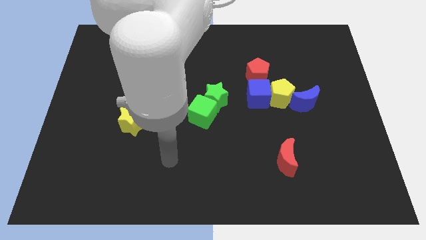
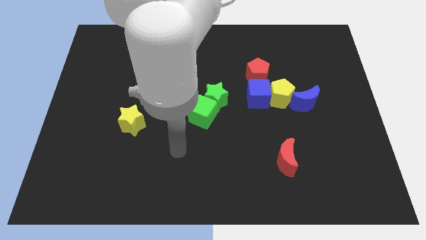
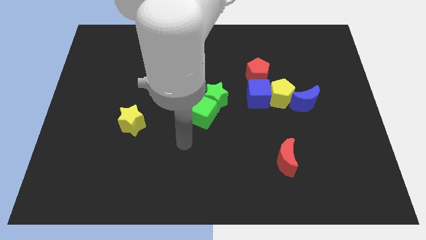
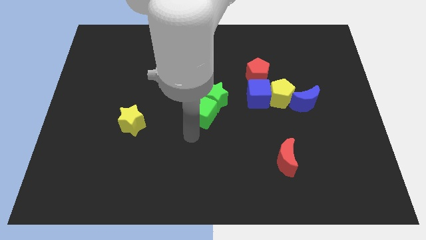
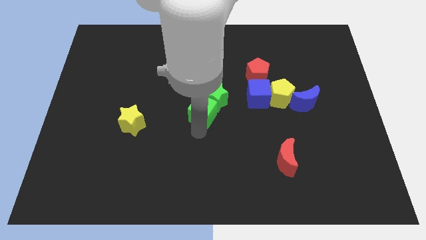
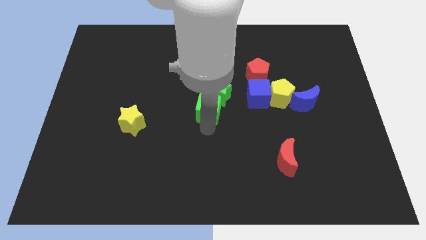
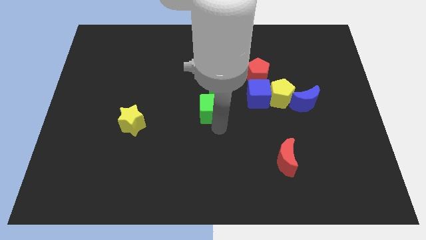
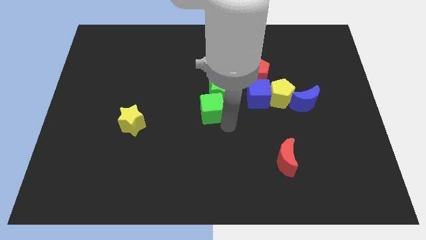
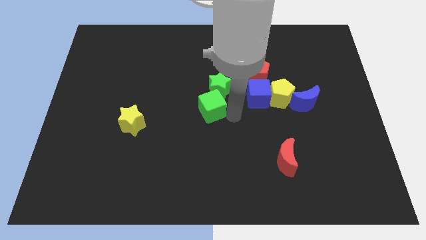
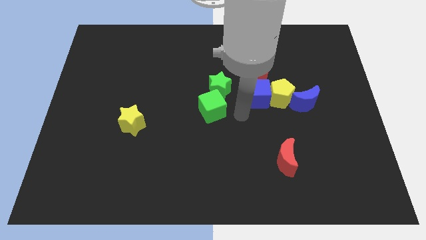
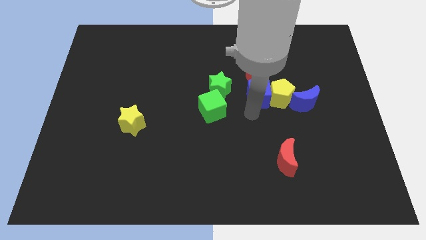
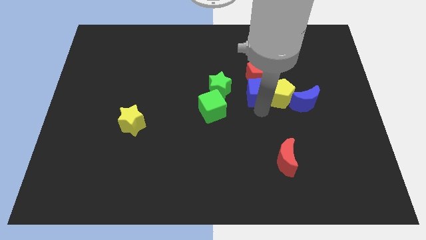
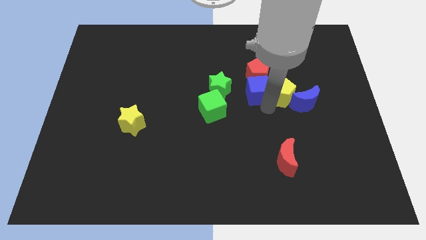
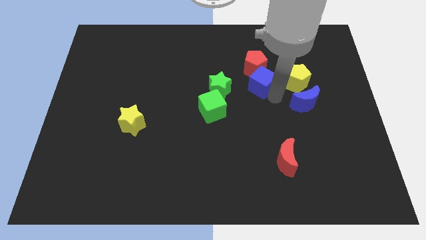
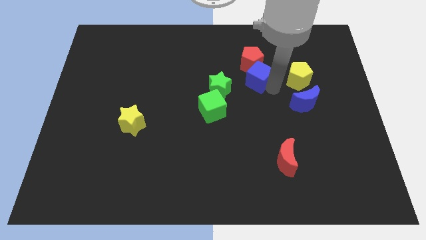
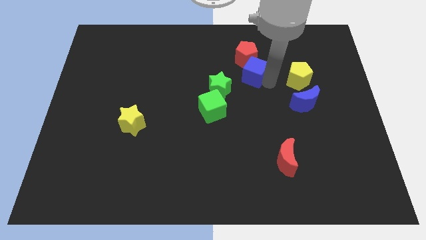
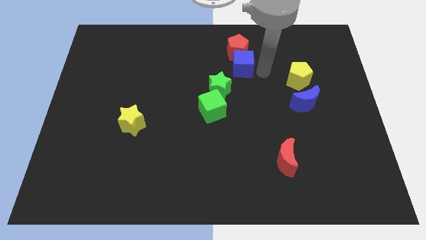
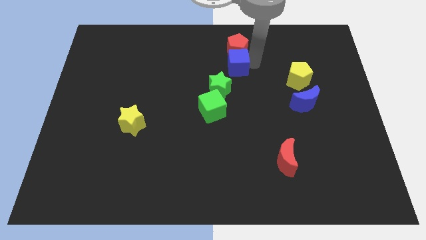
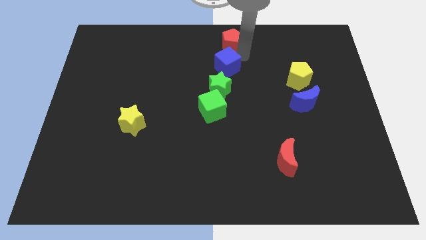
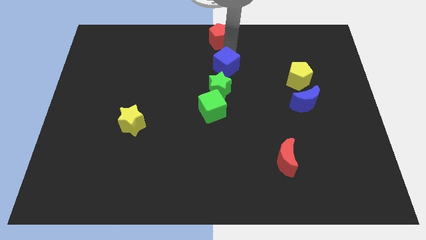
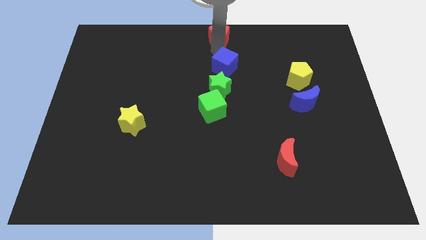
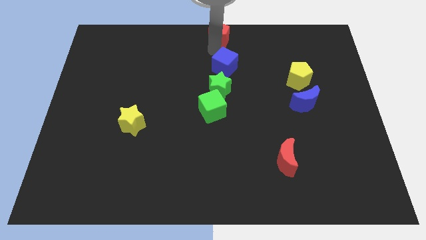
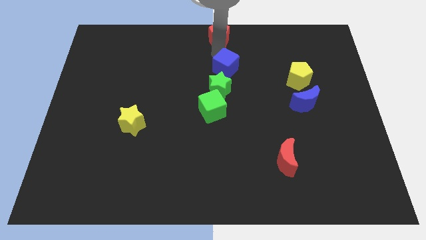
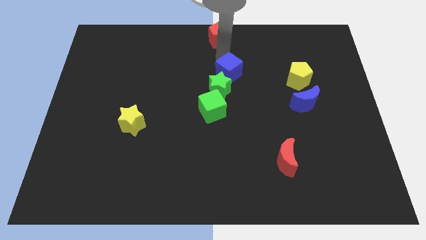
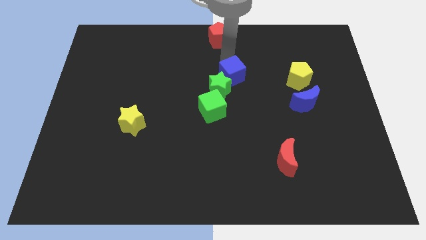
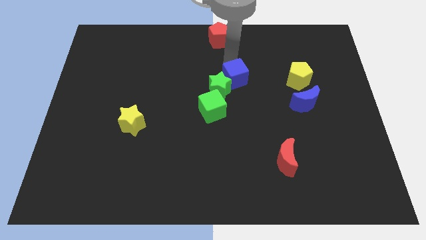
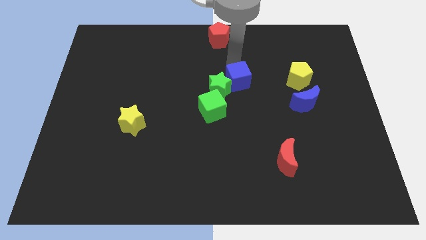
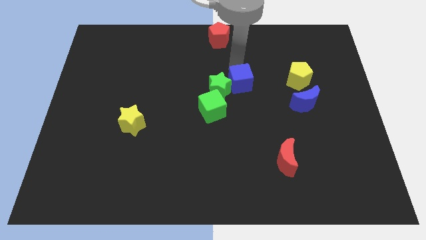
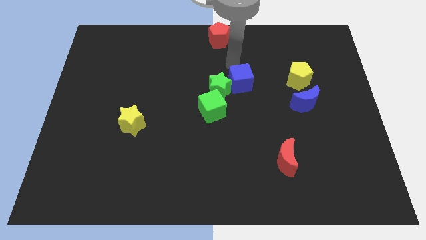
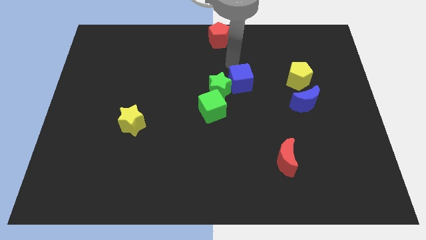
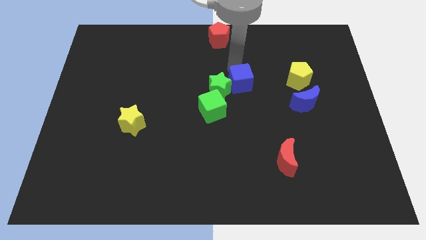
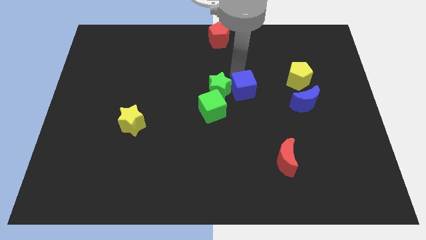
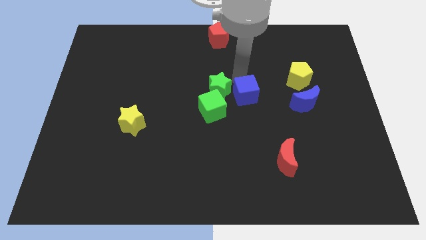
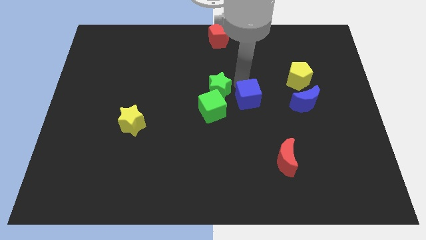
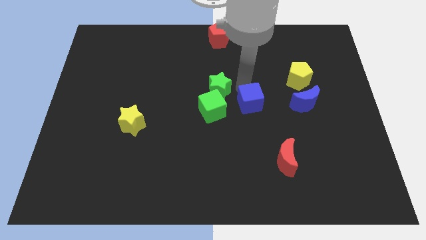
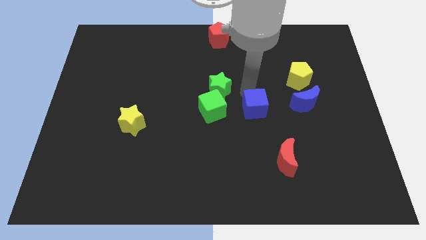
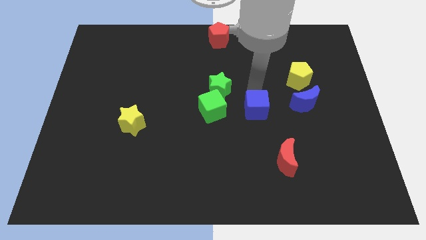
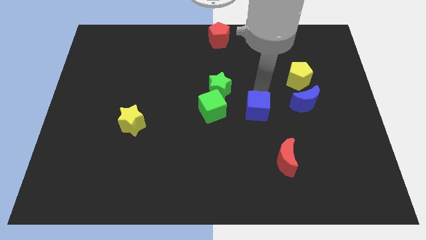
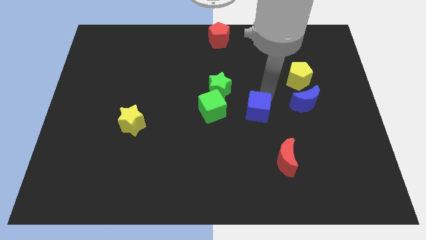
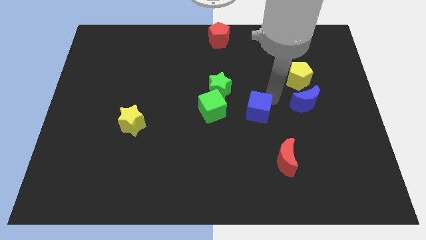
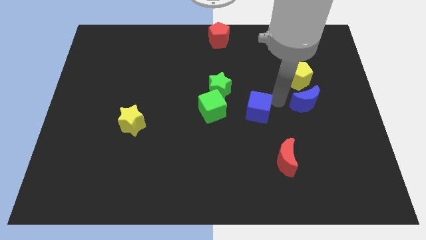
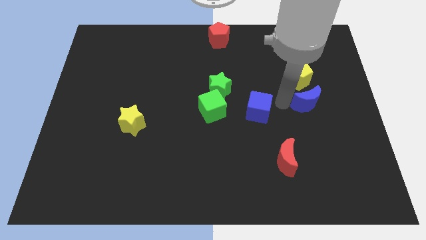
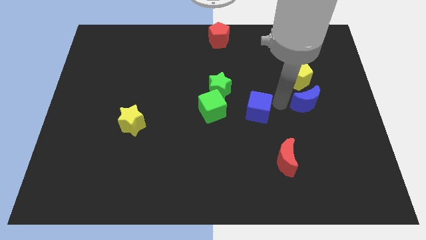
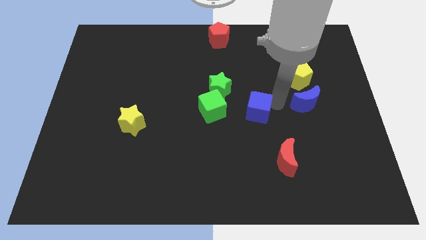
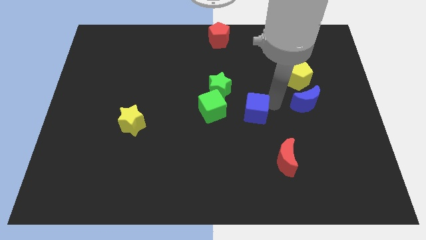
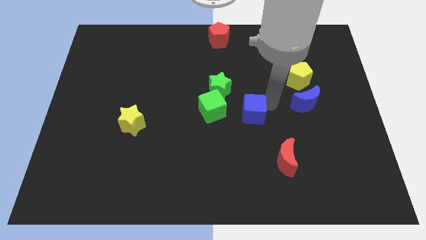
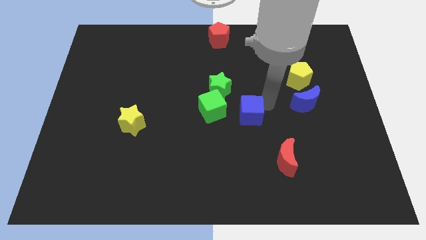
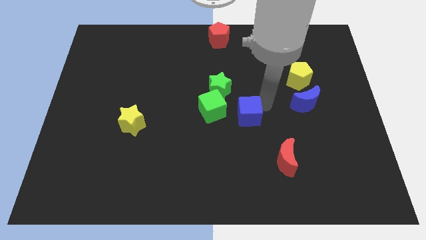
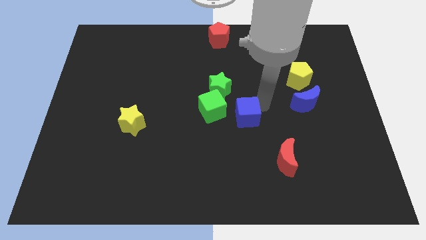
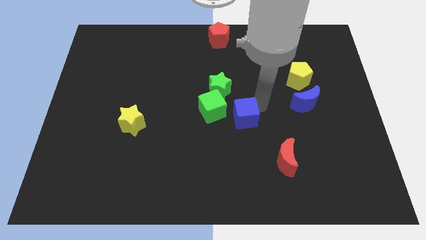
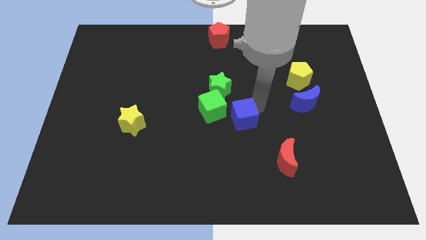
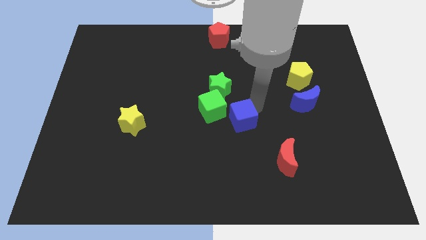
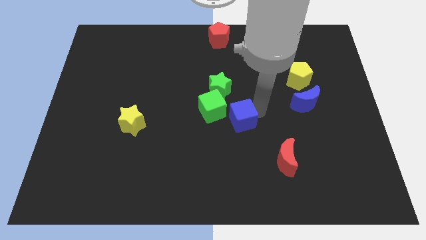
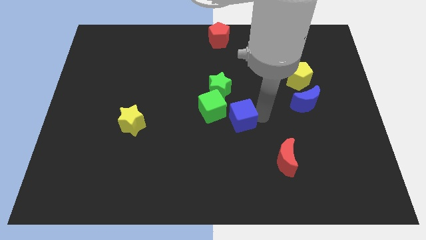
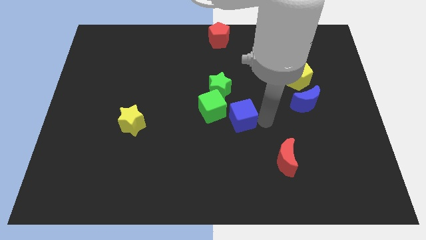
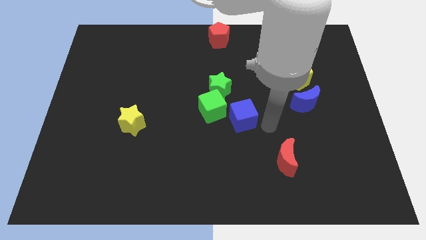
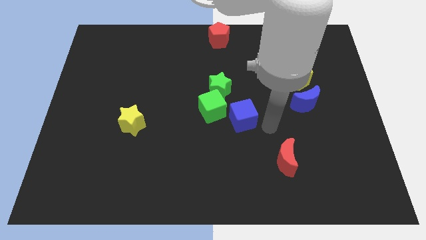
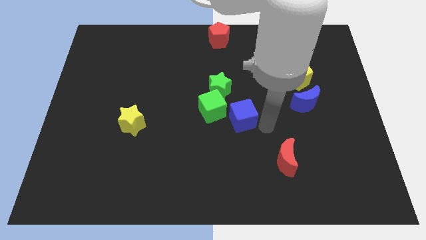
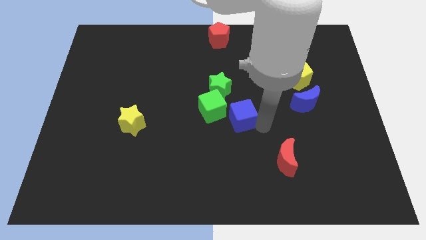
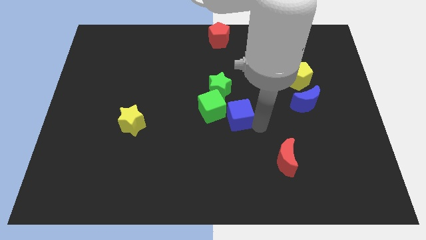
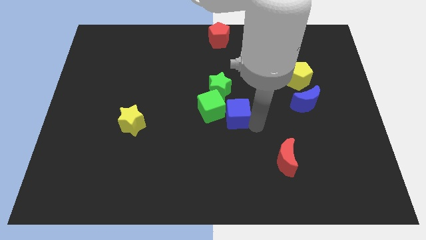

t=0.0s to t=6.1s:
push the blue cube close to the green cube

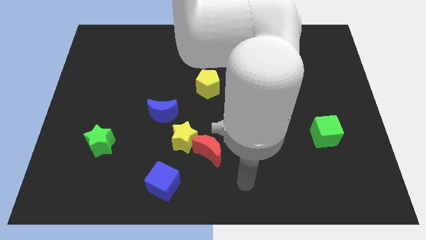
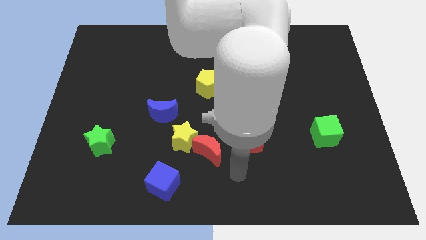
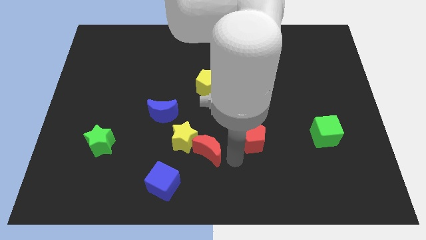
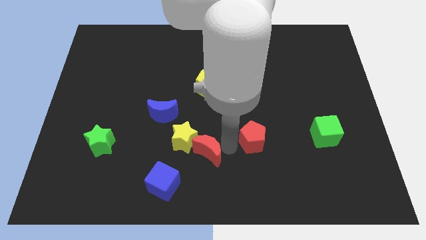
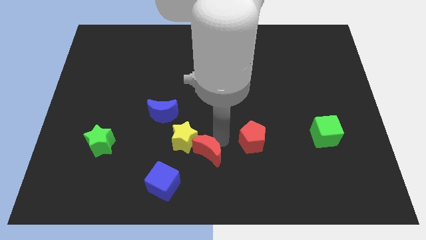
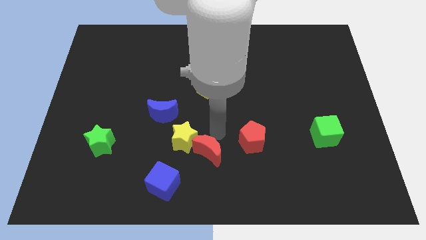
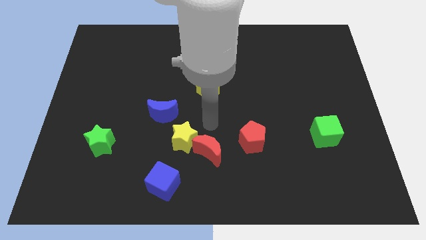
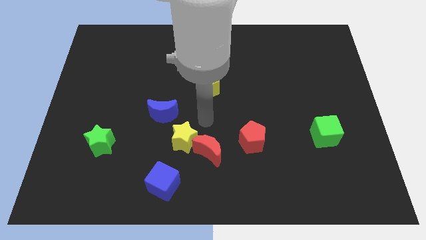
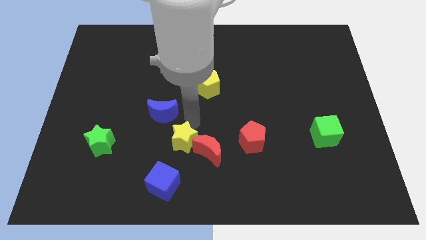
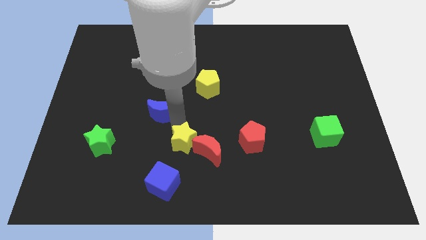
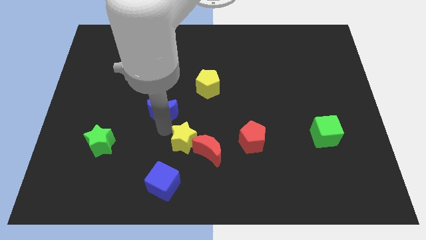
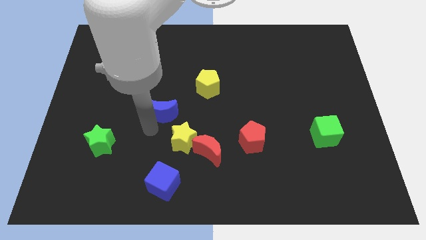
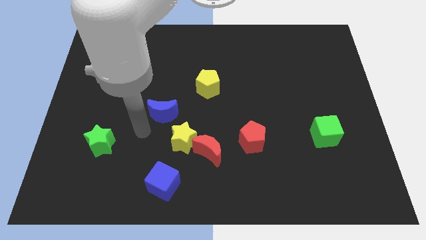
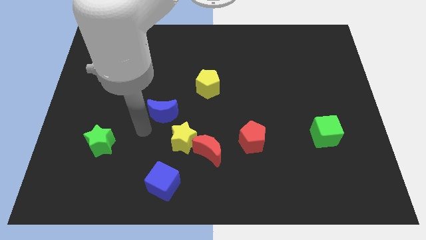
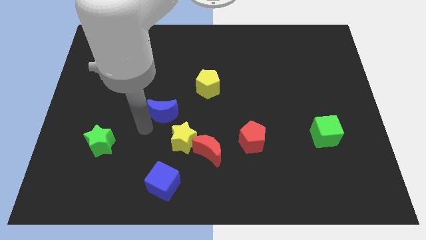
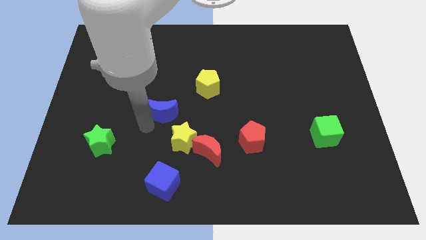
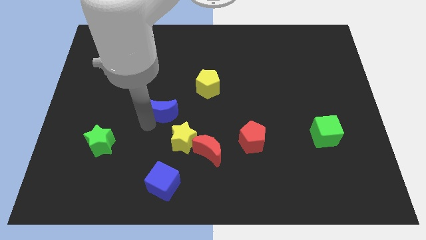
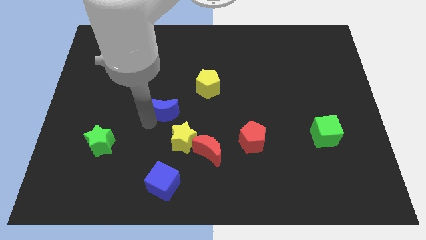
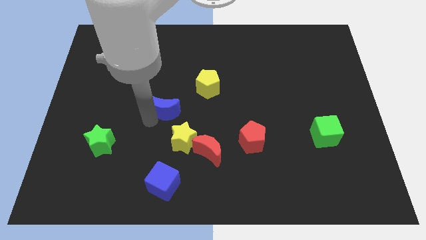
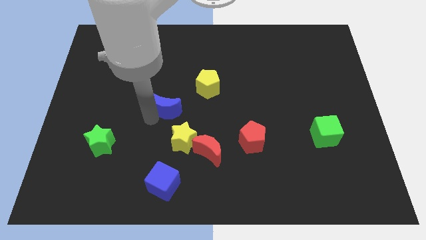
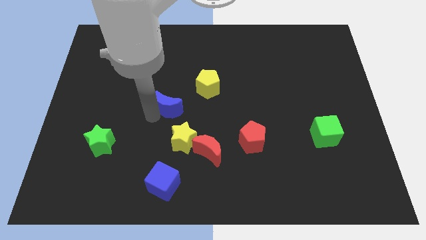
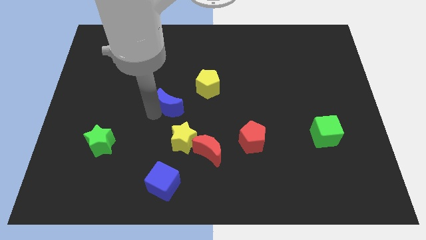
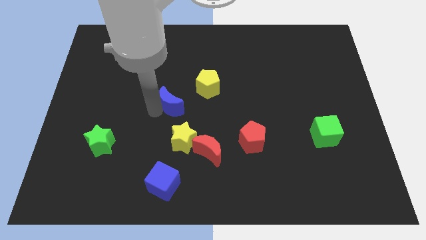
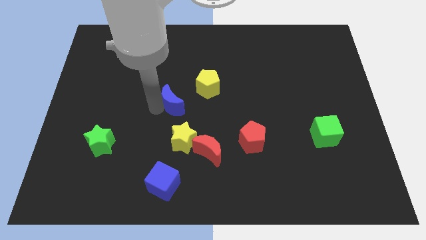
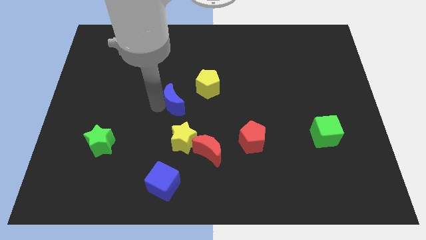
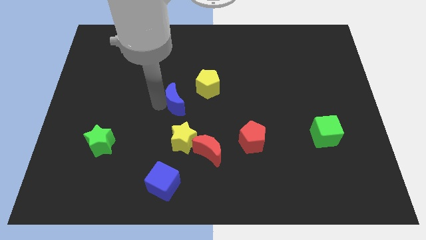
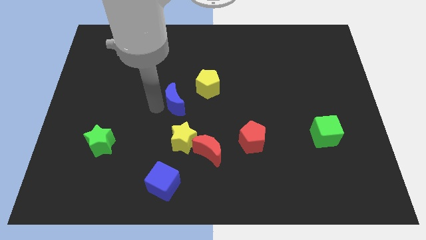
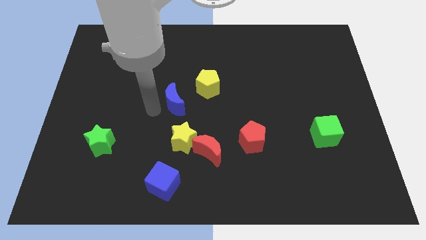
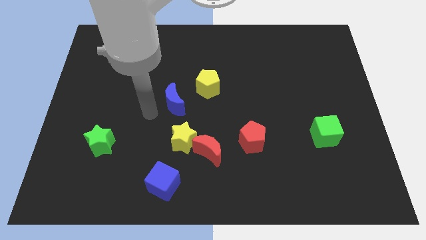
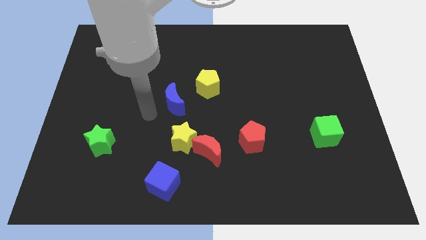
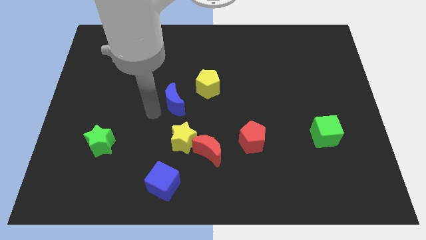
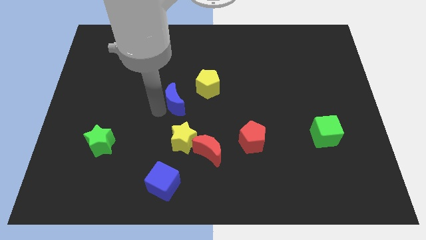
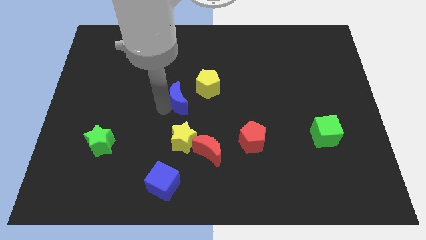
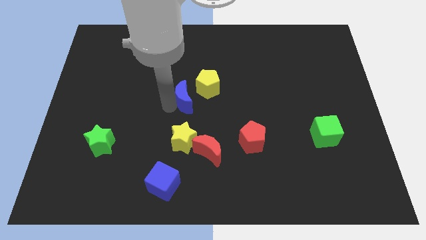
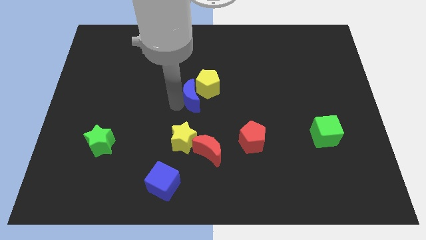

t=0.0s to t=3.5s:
move the blue moon towards the yellow pentagon
